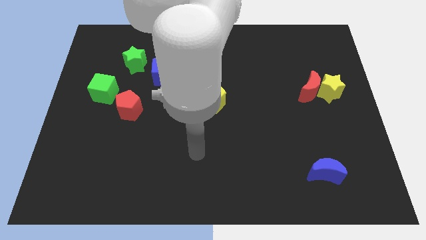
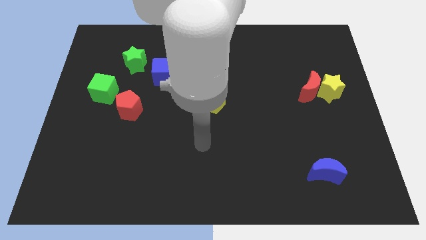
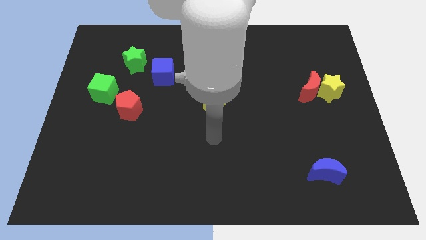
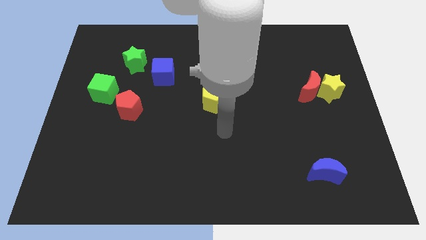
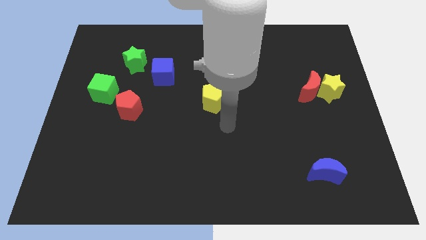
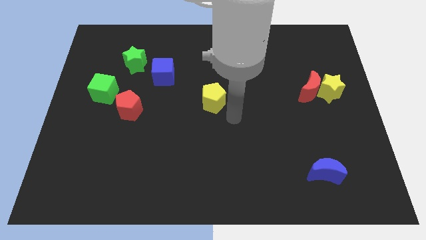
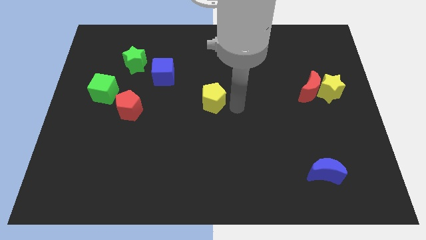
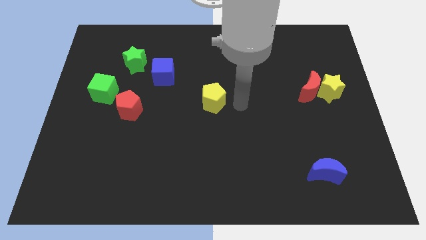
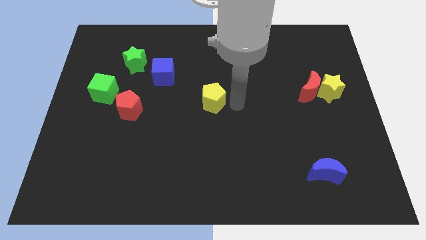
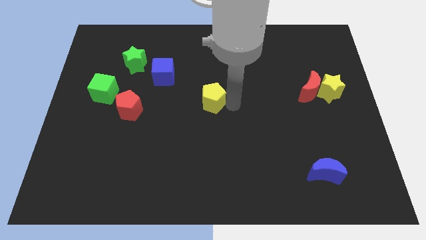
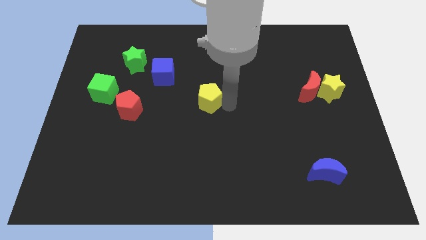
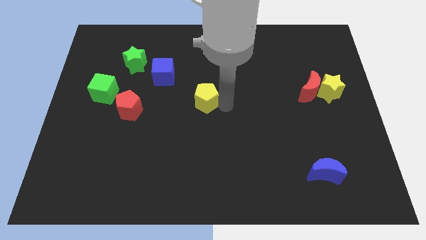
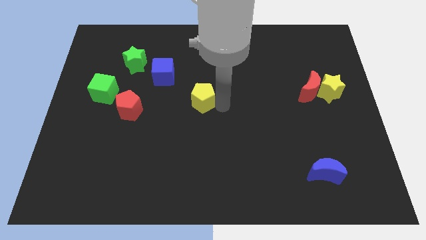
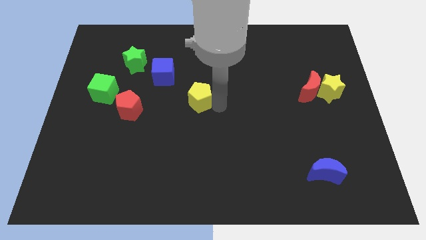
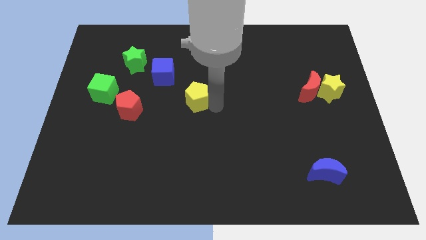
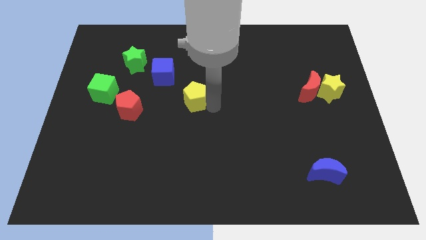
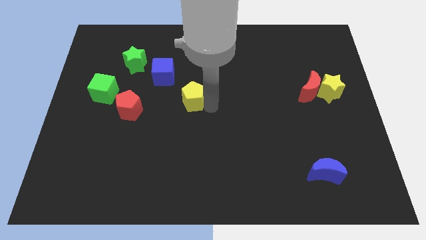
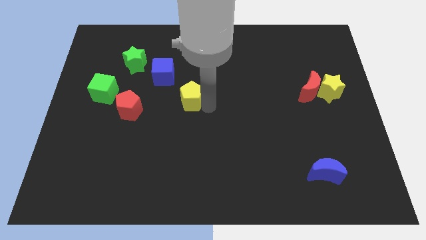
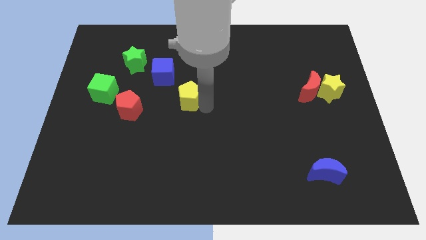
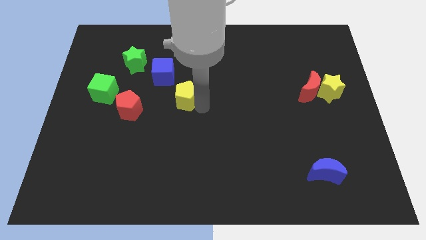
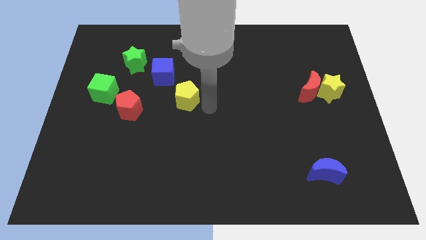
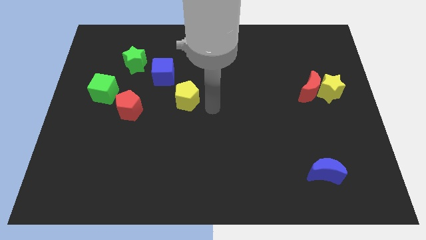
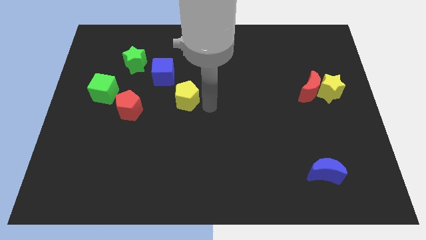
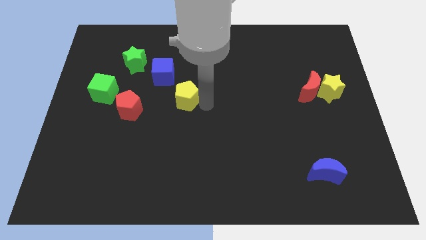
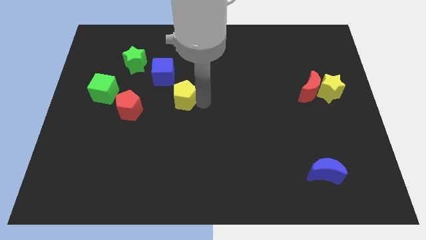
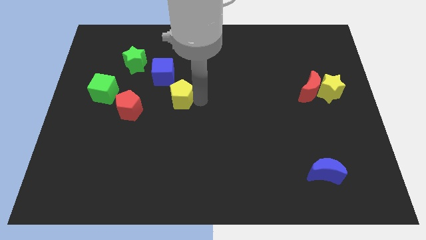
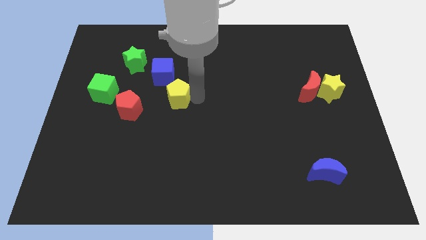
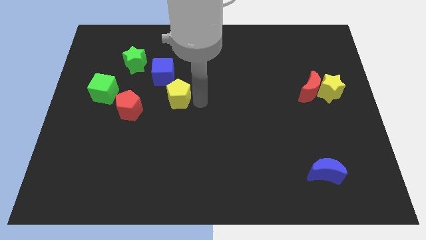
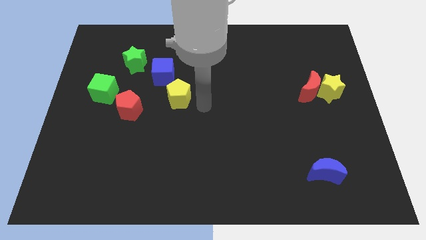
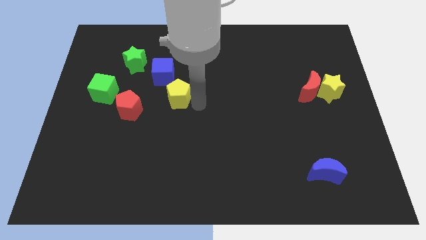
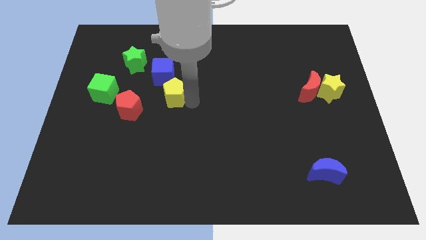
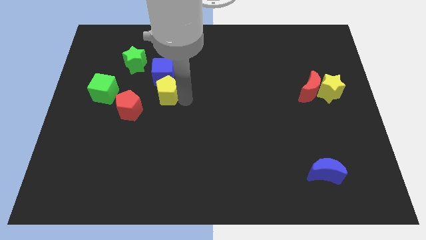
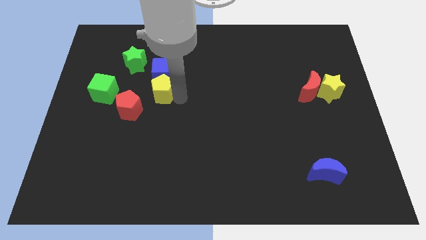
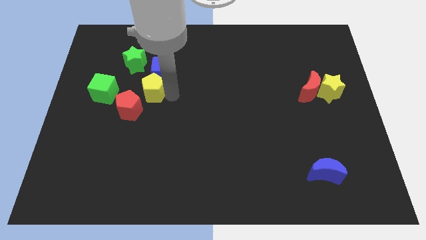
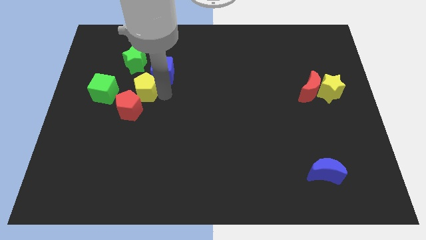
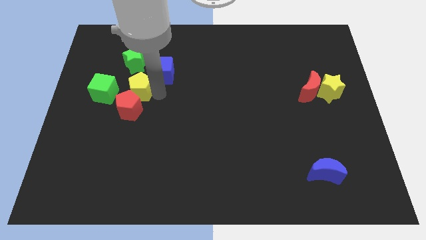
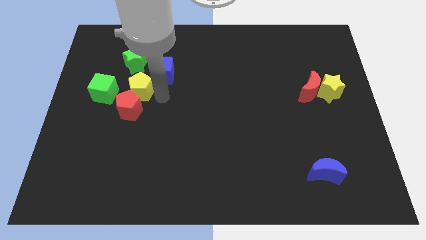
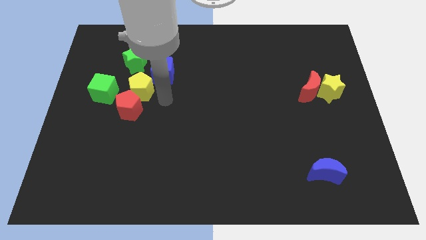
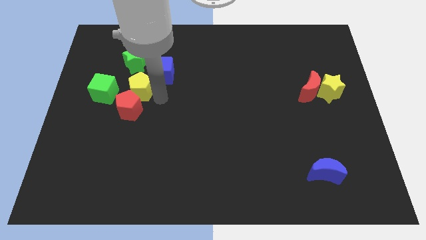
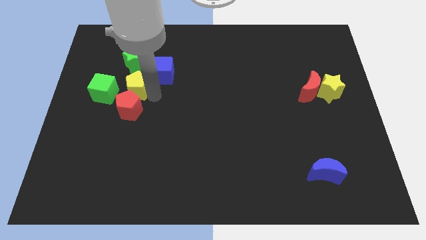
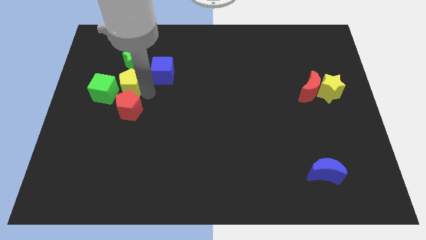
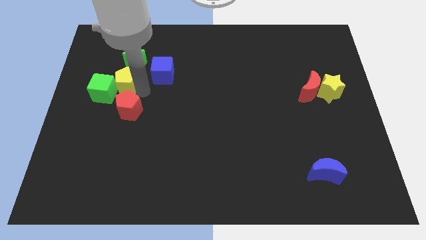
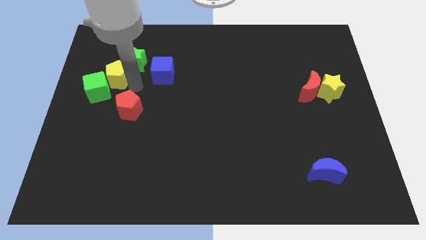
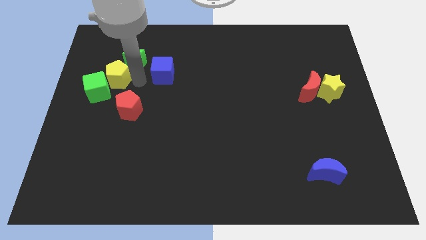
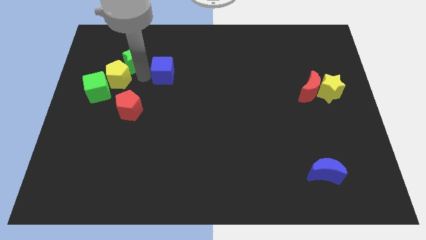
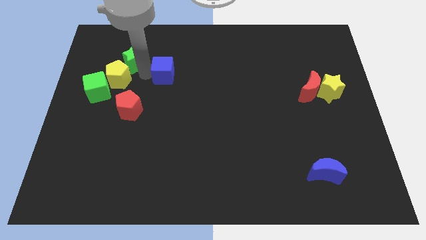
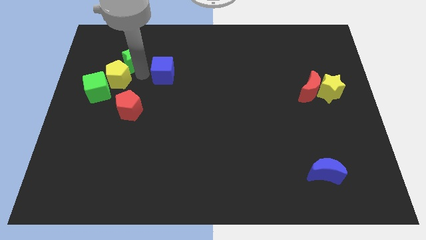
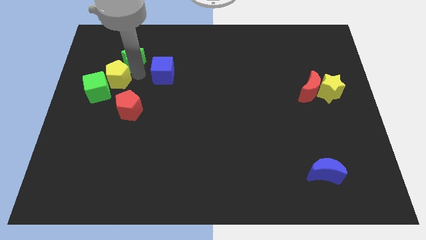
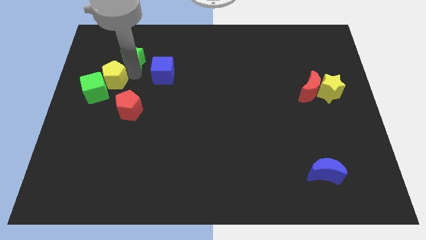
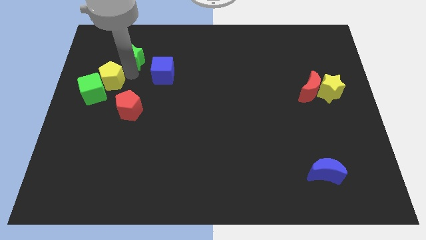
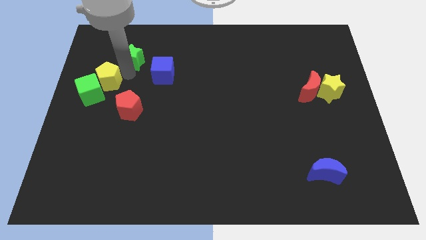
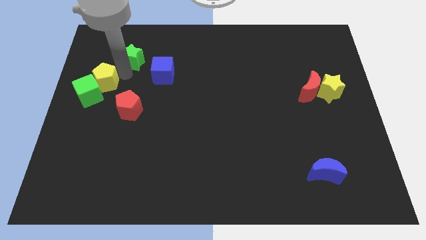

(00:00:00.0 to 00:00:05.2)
slide the yellow pentagon to the left side of the board
